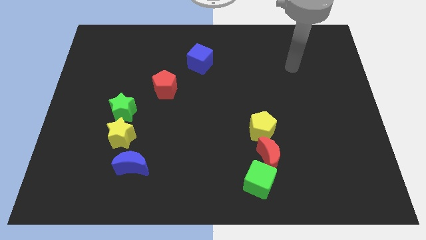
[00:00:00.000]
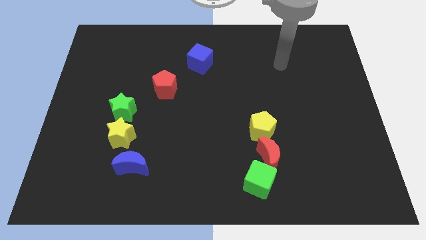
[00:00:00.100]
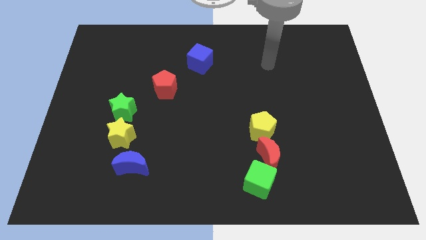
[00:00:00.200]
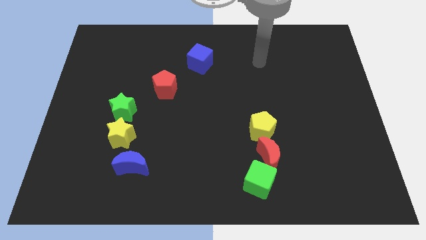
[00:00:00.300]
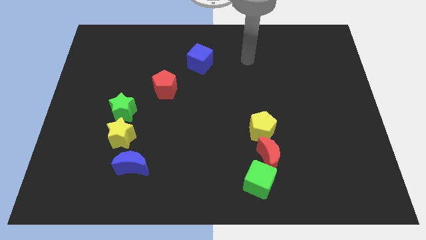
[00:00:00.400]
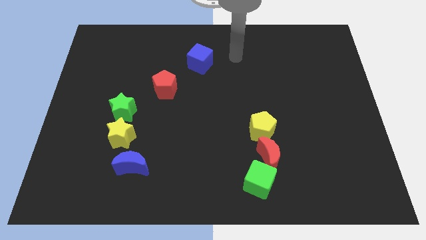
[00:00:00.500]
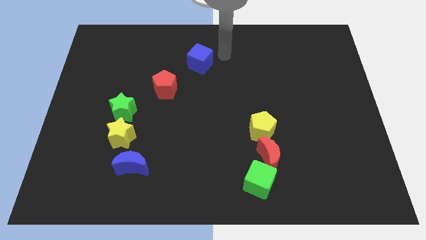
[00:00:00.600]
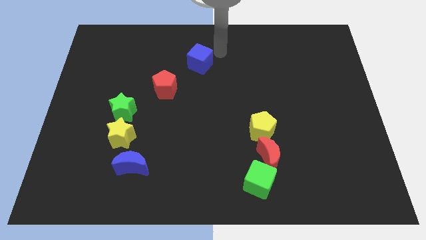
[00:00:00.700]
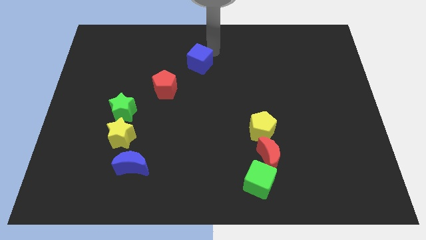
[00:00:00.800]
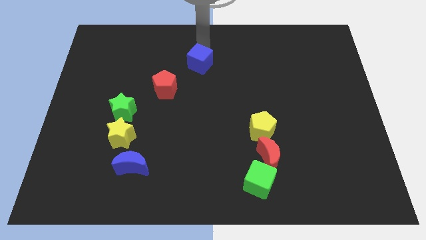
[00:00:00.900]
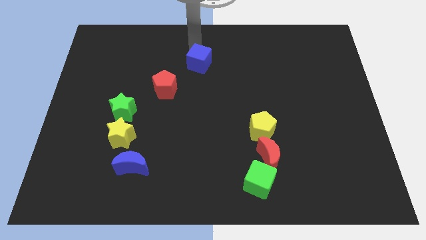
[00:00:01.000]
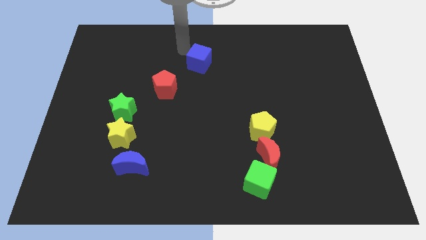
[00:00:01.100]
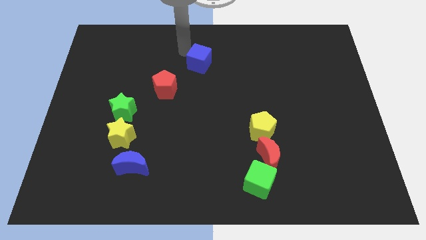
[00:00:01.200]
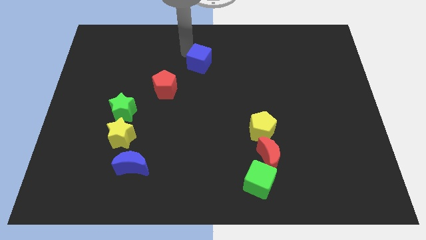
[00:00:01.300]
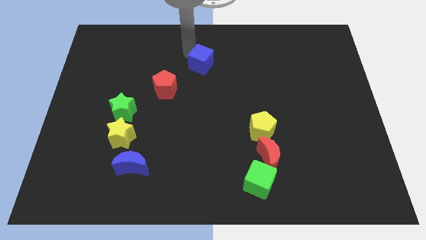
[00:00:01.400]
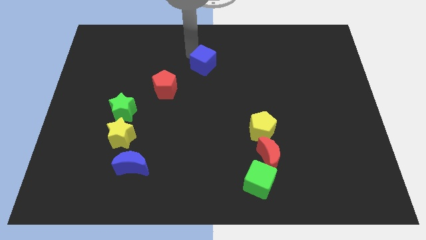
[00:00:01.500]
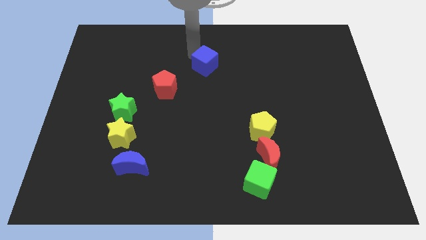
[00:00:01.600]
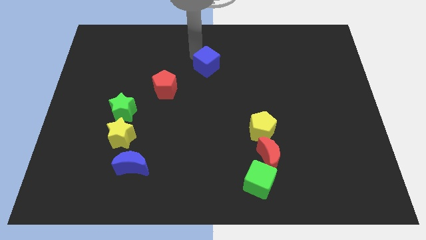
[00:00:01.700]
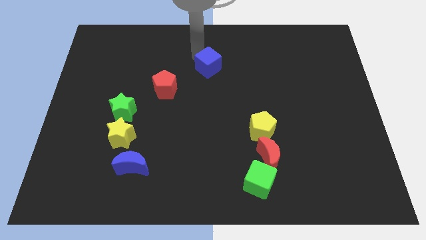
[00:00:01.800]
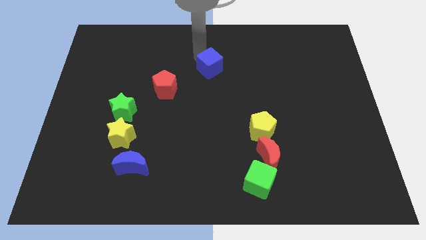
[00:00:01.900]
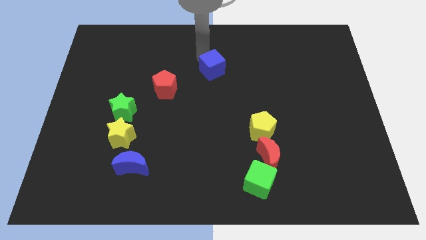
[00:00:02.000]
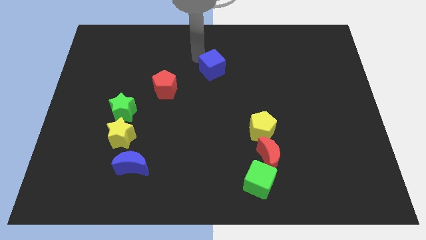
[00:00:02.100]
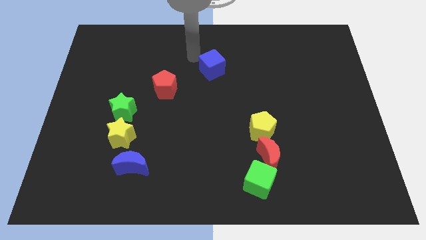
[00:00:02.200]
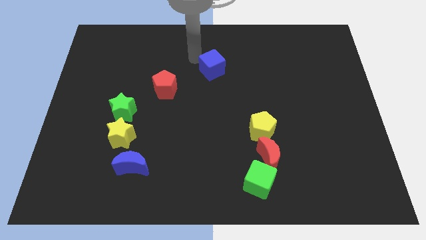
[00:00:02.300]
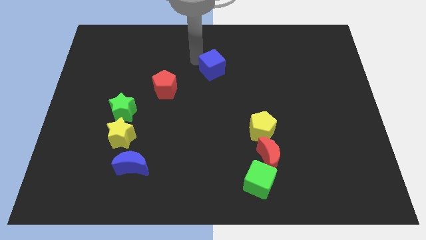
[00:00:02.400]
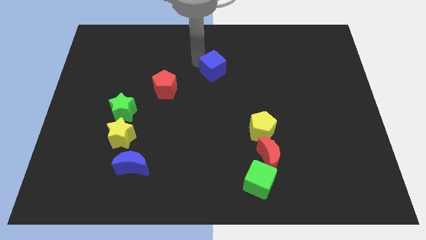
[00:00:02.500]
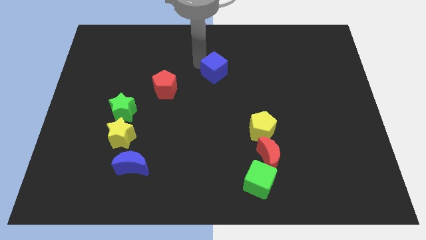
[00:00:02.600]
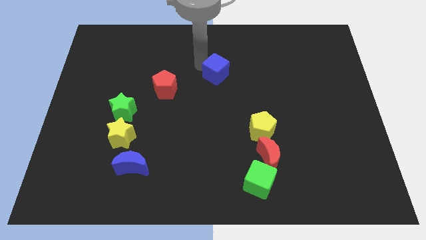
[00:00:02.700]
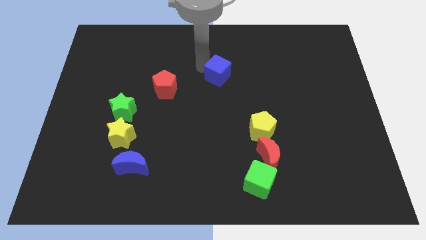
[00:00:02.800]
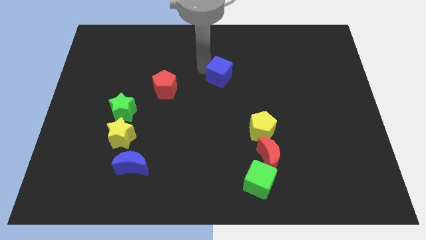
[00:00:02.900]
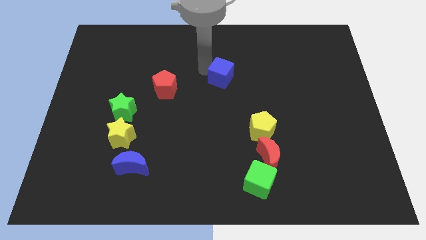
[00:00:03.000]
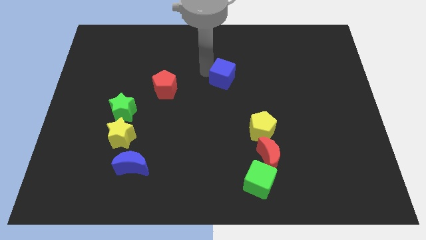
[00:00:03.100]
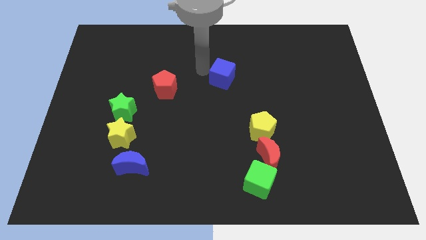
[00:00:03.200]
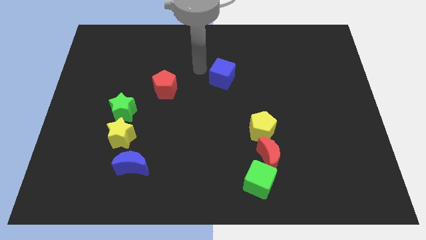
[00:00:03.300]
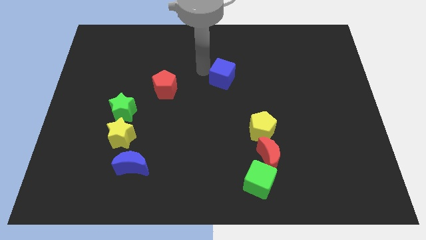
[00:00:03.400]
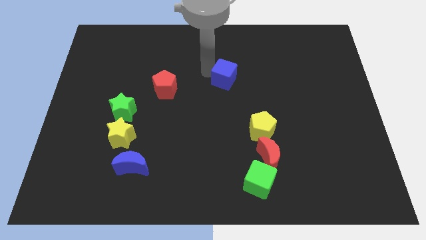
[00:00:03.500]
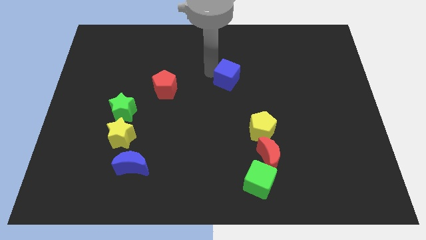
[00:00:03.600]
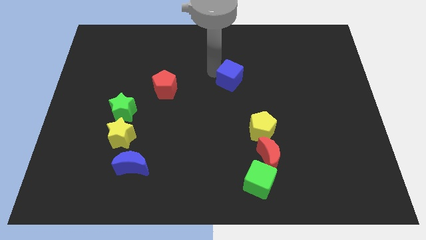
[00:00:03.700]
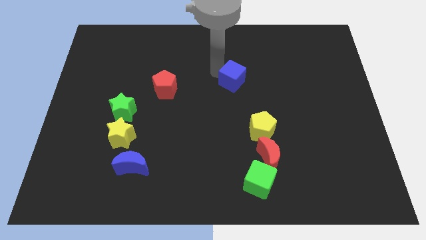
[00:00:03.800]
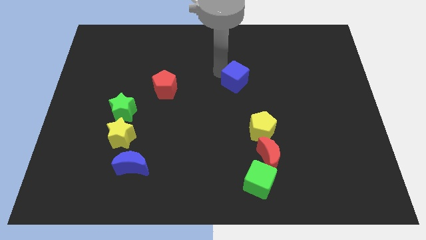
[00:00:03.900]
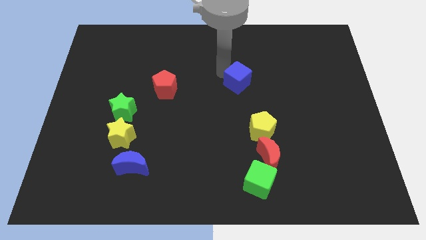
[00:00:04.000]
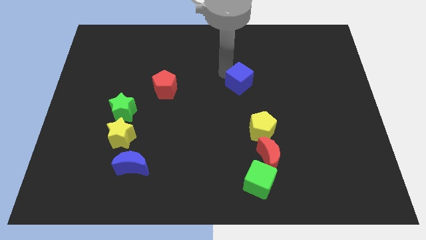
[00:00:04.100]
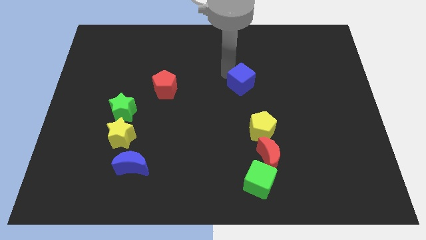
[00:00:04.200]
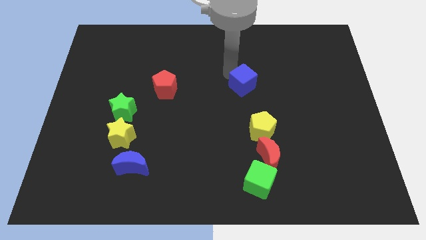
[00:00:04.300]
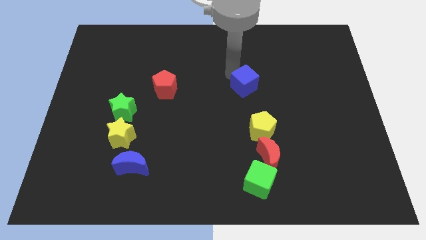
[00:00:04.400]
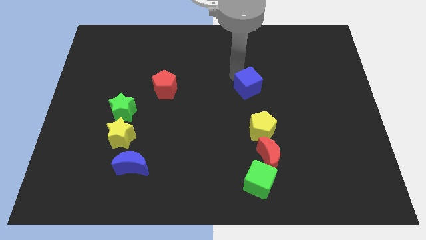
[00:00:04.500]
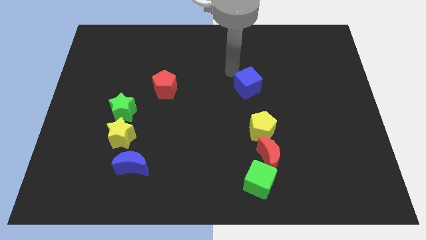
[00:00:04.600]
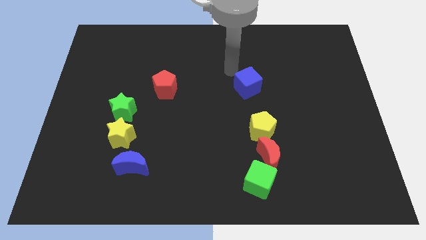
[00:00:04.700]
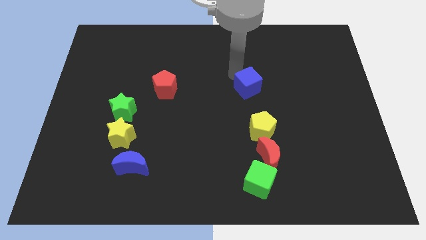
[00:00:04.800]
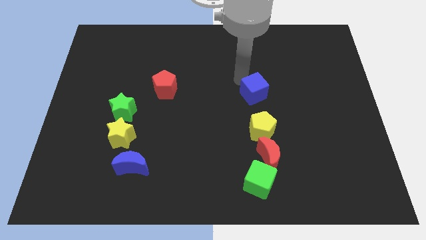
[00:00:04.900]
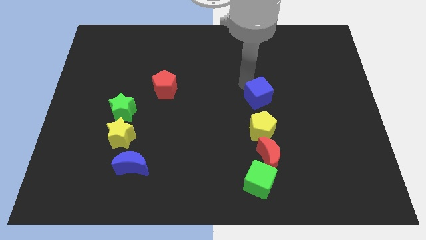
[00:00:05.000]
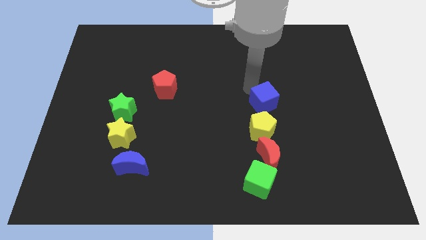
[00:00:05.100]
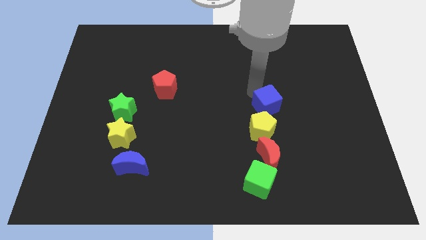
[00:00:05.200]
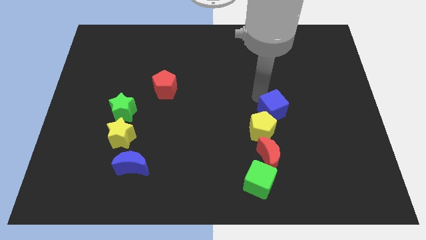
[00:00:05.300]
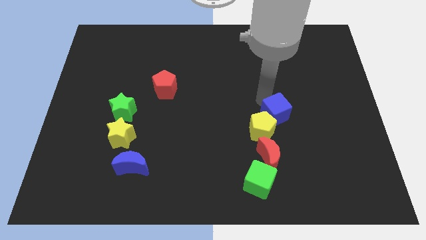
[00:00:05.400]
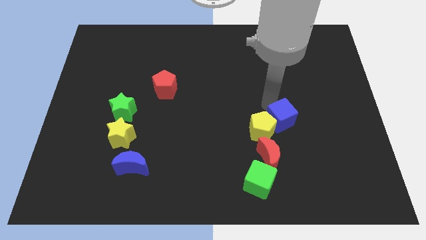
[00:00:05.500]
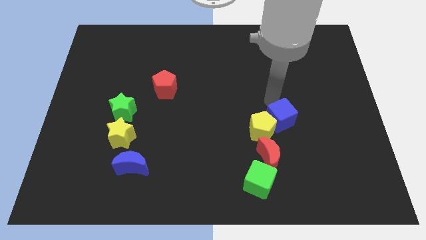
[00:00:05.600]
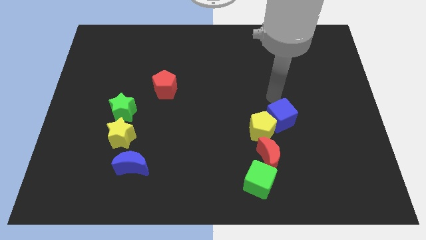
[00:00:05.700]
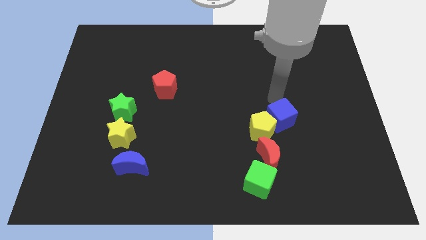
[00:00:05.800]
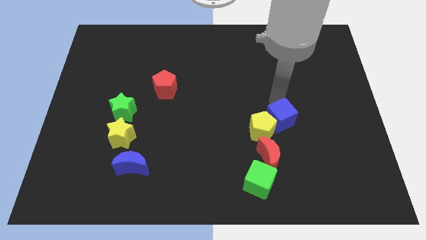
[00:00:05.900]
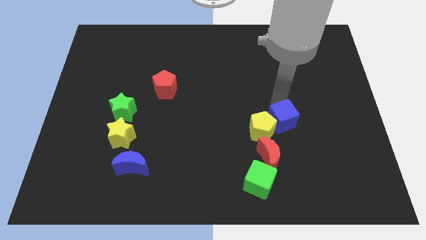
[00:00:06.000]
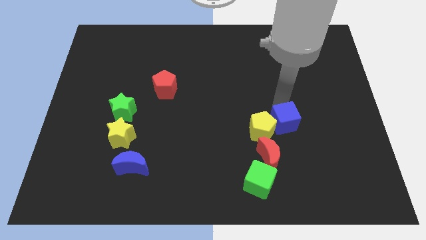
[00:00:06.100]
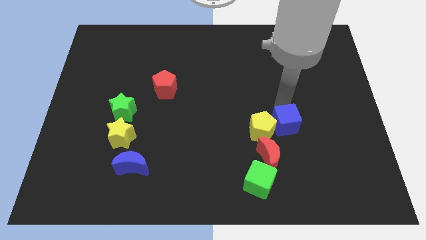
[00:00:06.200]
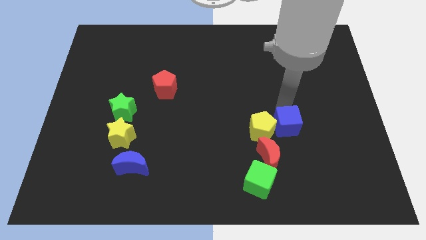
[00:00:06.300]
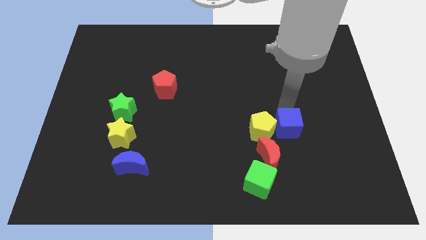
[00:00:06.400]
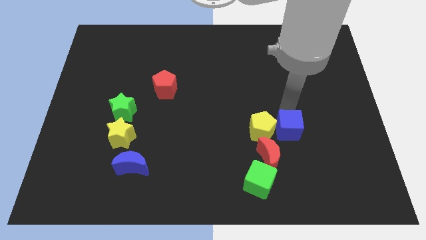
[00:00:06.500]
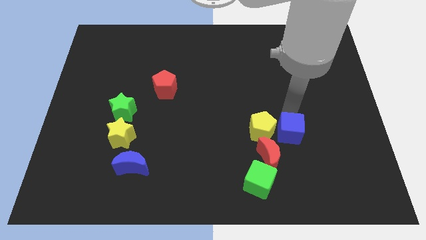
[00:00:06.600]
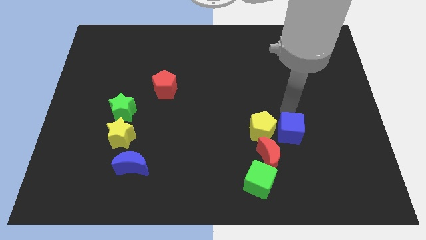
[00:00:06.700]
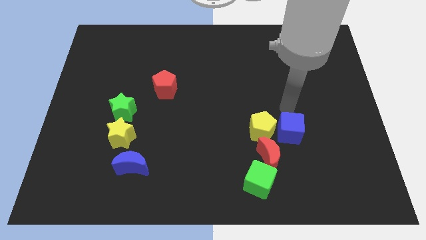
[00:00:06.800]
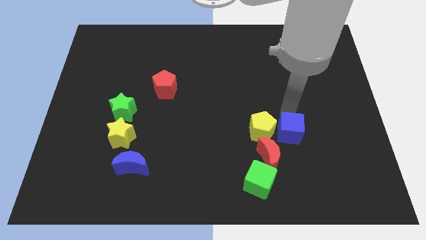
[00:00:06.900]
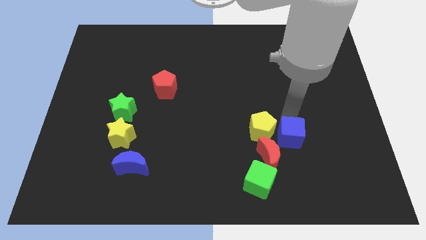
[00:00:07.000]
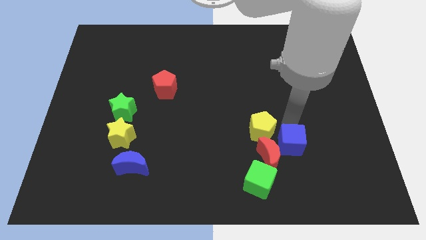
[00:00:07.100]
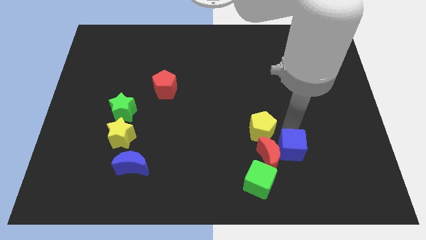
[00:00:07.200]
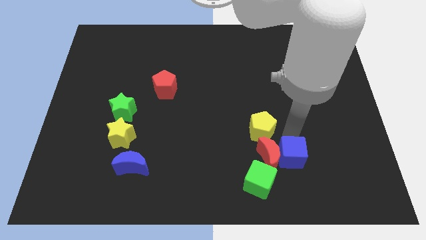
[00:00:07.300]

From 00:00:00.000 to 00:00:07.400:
move the blue cube to the bottom right of the red moon
